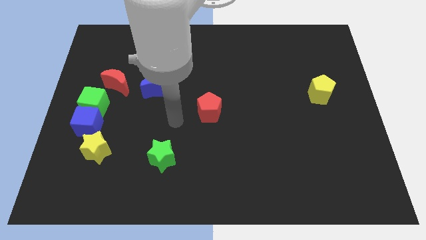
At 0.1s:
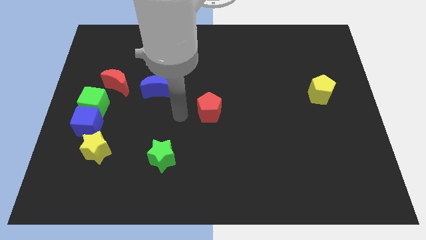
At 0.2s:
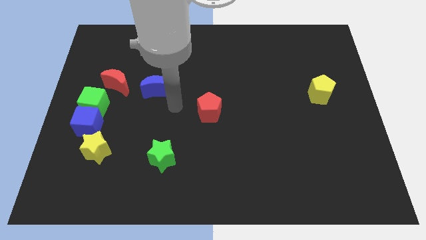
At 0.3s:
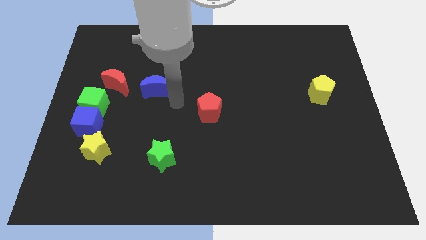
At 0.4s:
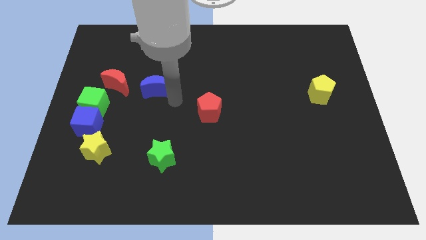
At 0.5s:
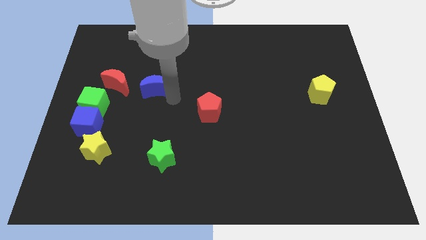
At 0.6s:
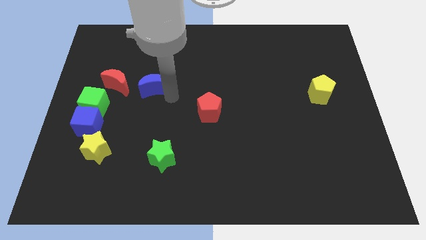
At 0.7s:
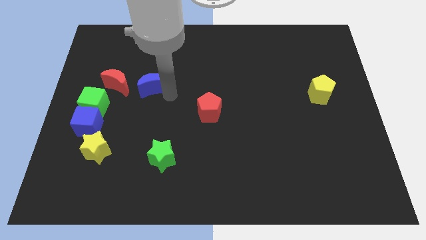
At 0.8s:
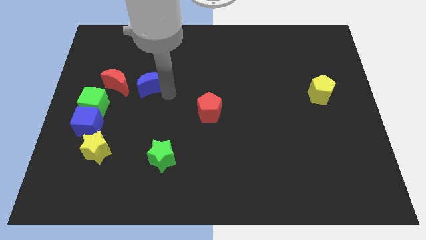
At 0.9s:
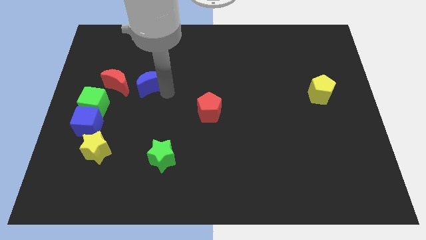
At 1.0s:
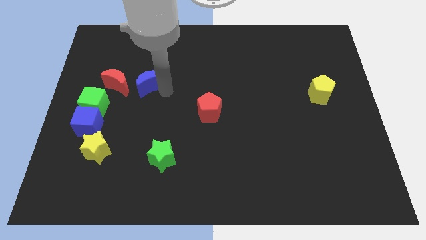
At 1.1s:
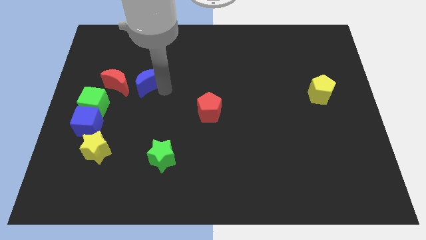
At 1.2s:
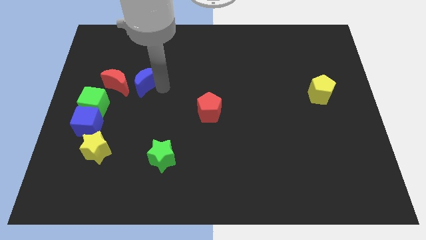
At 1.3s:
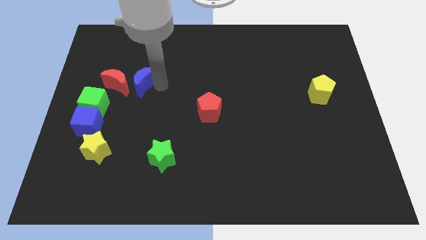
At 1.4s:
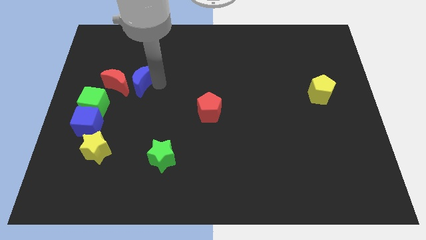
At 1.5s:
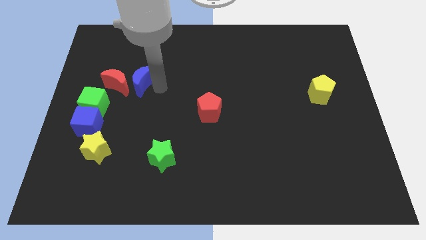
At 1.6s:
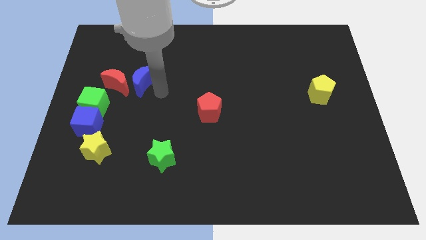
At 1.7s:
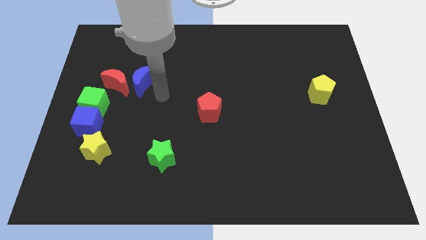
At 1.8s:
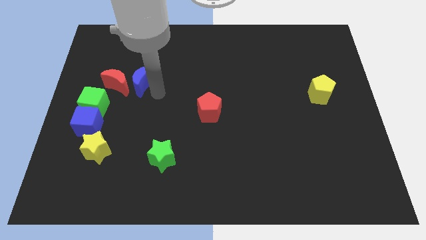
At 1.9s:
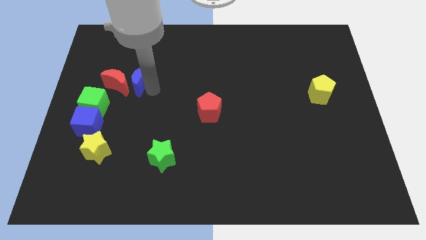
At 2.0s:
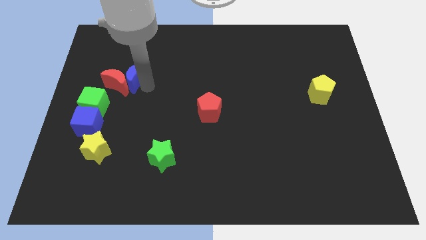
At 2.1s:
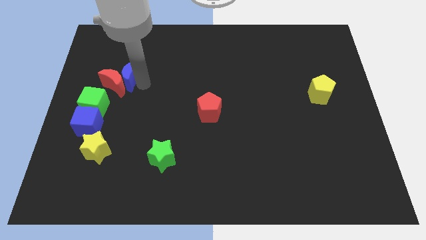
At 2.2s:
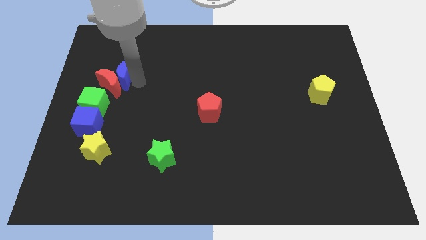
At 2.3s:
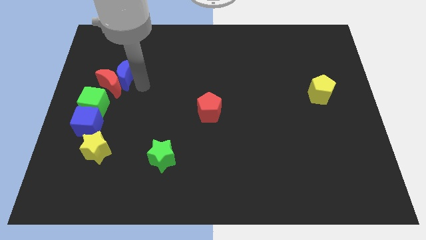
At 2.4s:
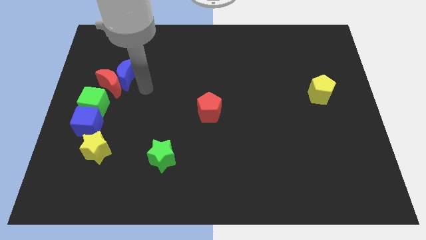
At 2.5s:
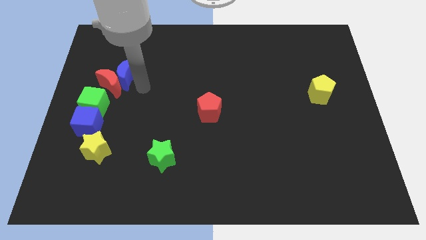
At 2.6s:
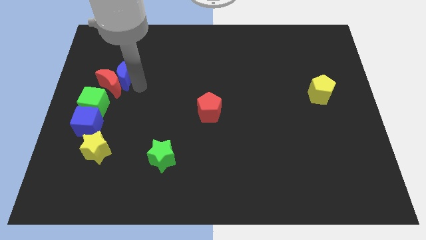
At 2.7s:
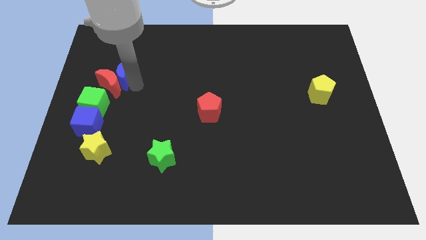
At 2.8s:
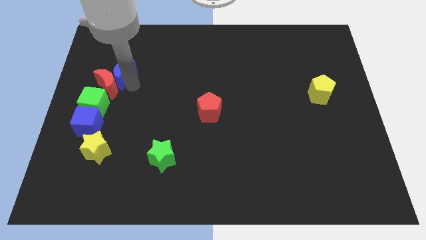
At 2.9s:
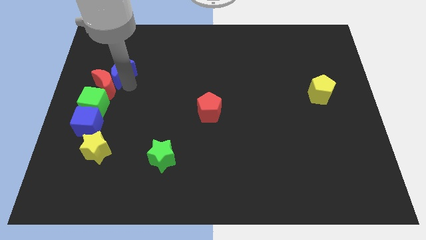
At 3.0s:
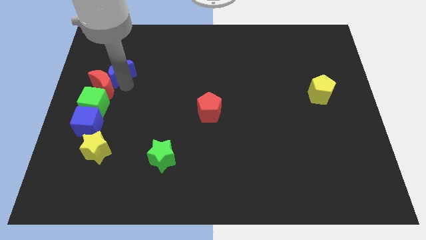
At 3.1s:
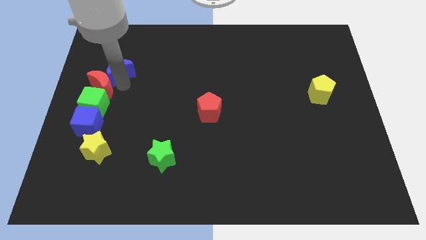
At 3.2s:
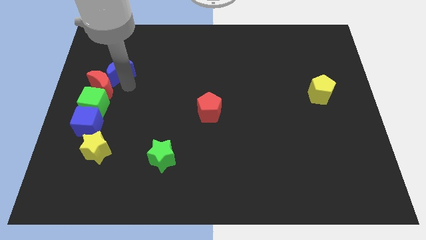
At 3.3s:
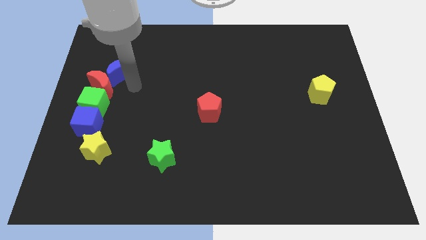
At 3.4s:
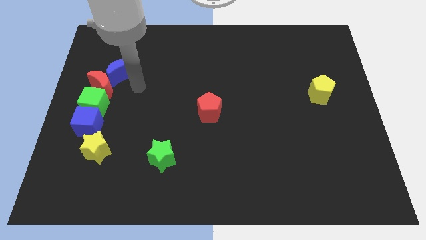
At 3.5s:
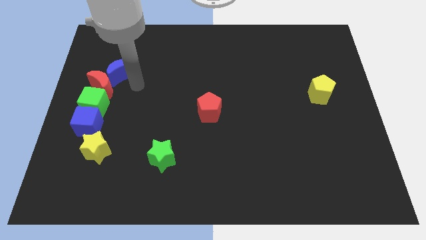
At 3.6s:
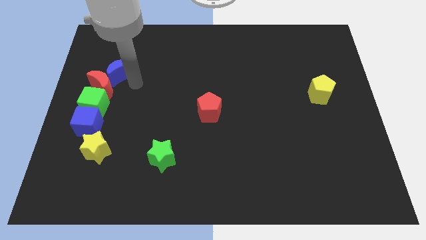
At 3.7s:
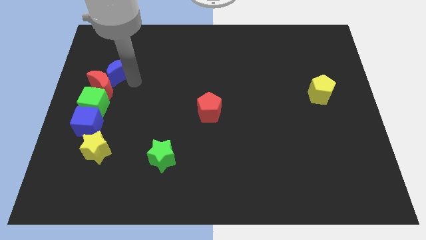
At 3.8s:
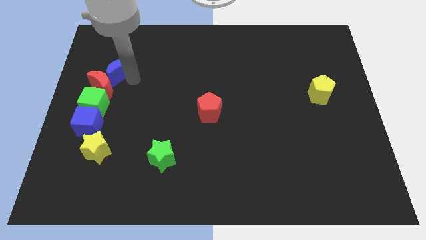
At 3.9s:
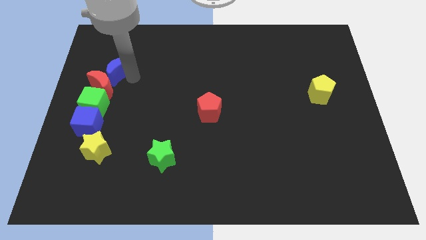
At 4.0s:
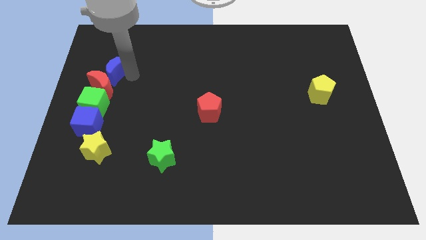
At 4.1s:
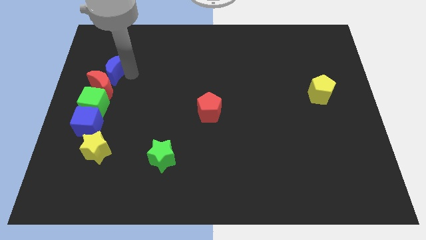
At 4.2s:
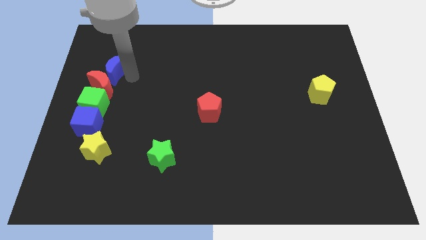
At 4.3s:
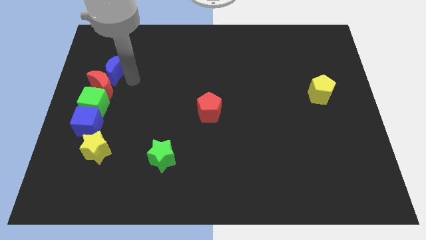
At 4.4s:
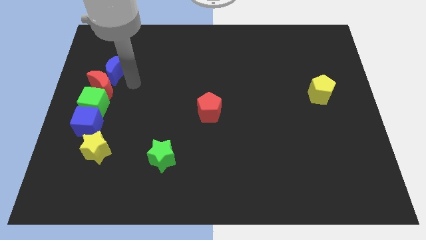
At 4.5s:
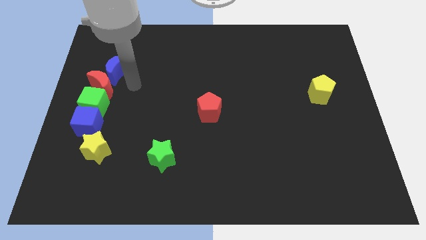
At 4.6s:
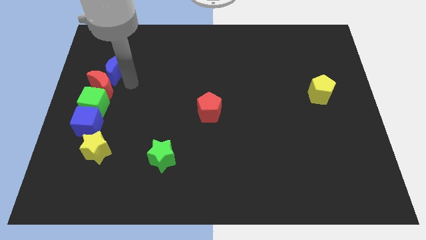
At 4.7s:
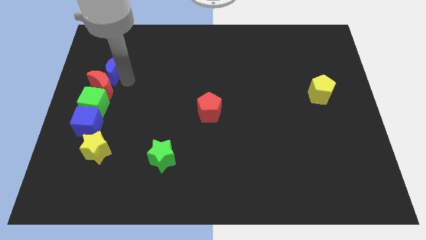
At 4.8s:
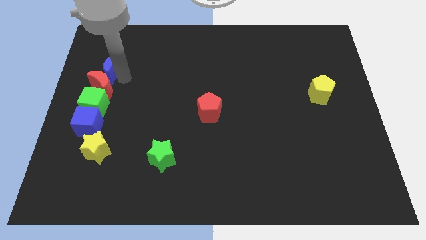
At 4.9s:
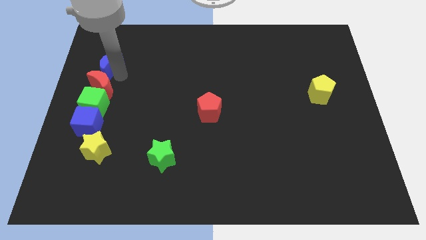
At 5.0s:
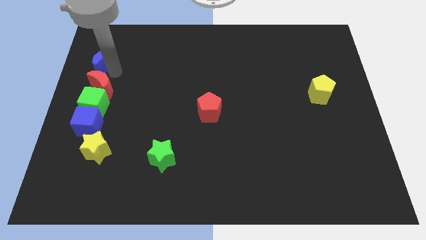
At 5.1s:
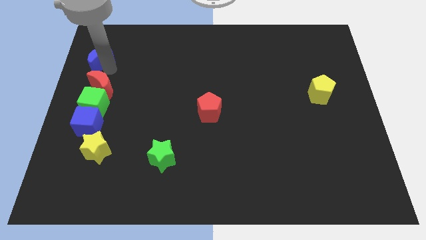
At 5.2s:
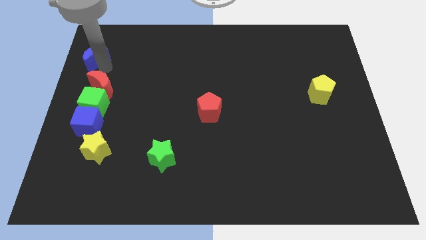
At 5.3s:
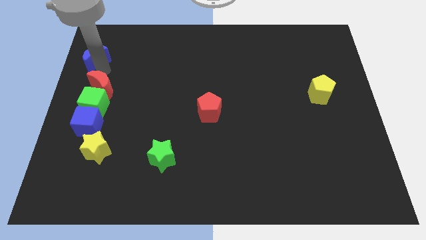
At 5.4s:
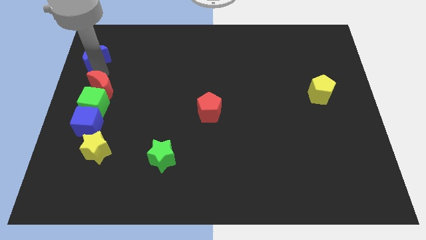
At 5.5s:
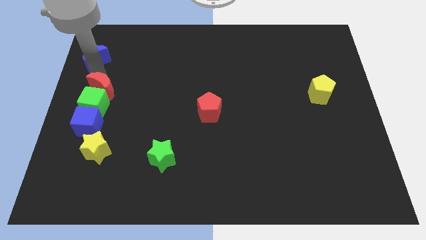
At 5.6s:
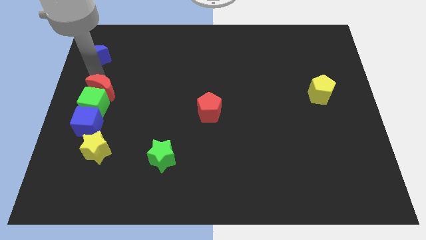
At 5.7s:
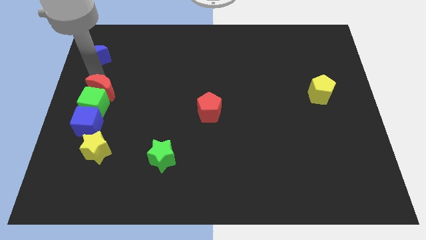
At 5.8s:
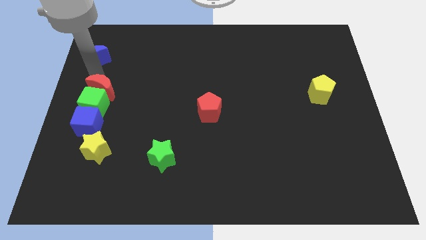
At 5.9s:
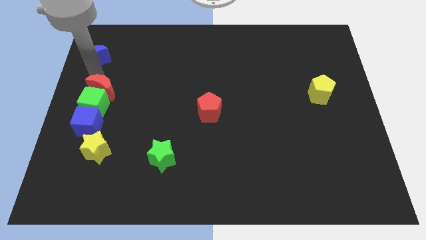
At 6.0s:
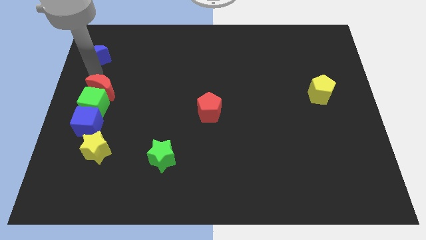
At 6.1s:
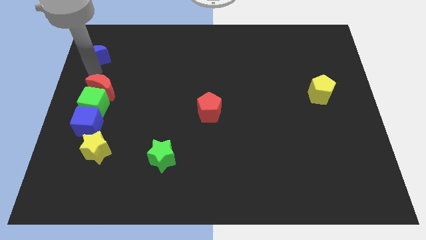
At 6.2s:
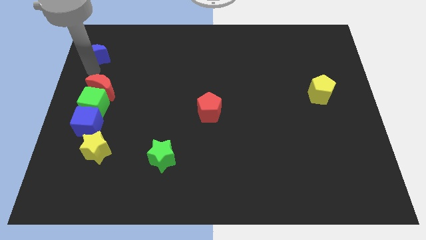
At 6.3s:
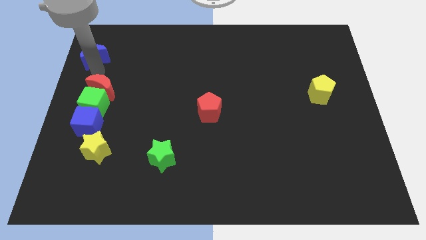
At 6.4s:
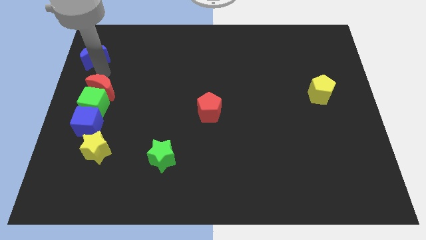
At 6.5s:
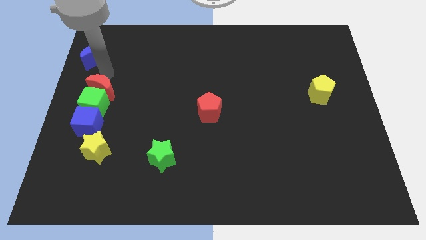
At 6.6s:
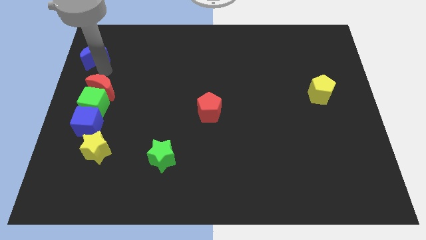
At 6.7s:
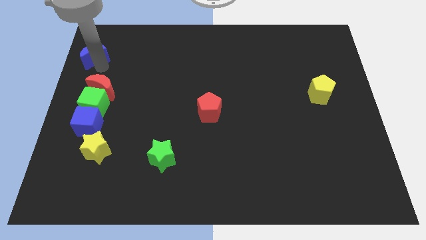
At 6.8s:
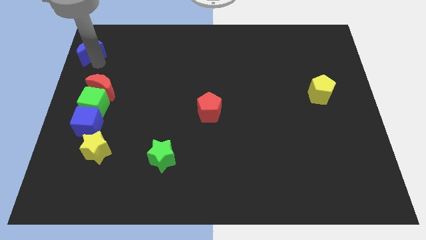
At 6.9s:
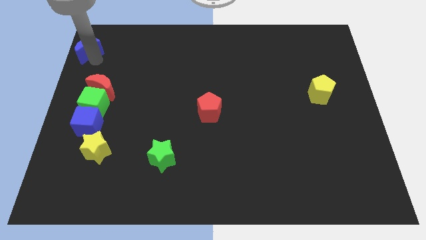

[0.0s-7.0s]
push the blue moon to the upper left corner

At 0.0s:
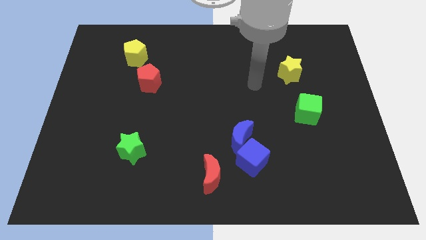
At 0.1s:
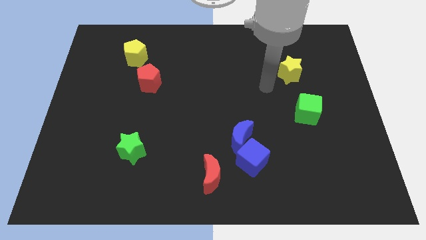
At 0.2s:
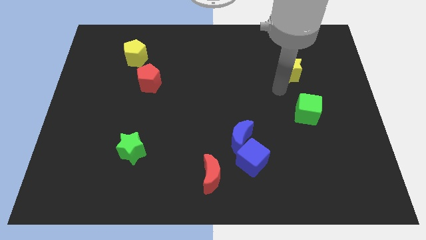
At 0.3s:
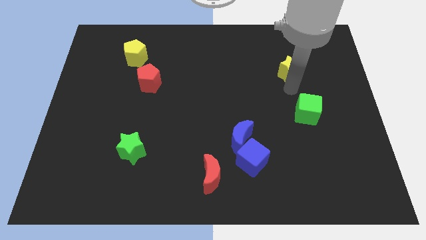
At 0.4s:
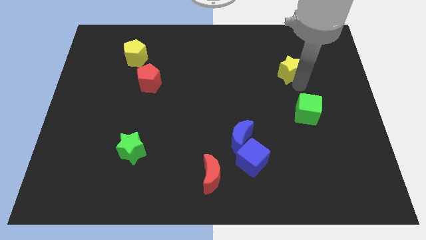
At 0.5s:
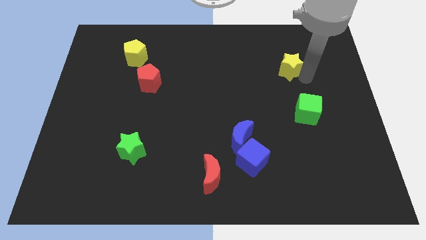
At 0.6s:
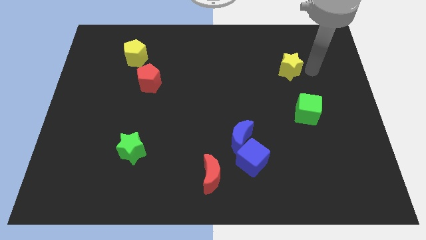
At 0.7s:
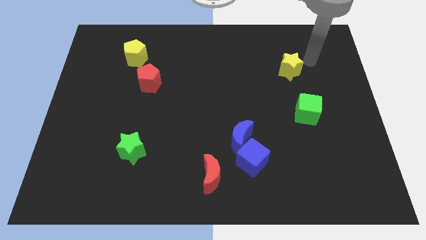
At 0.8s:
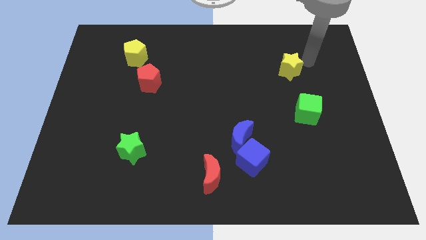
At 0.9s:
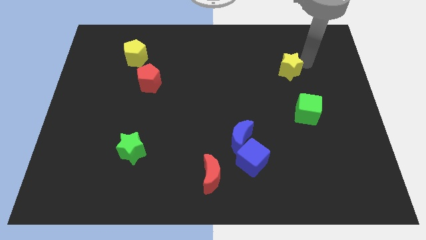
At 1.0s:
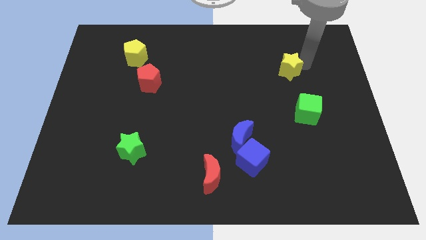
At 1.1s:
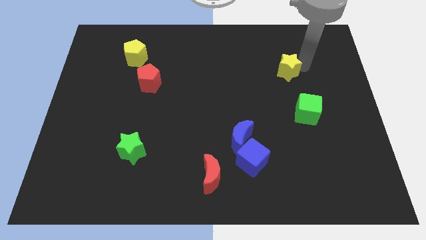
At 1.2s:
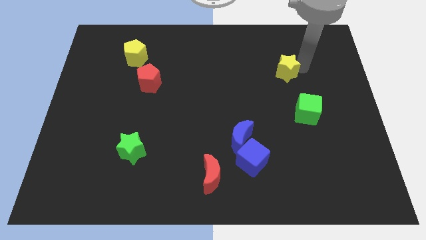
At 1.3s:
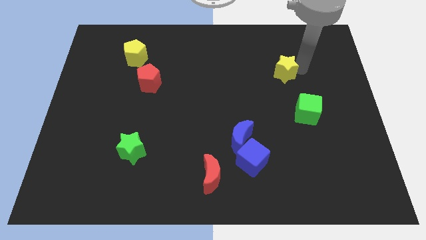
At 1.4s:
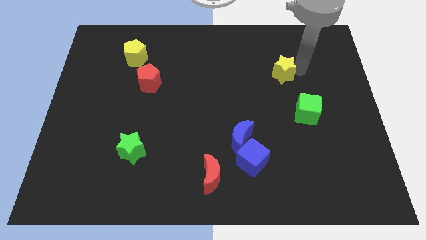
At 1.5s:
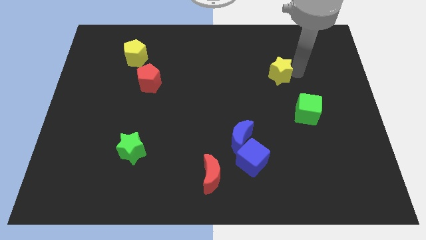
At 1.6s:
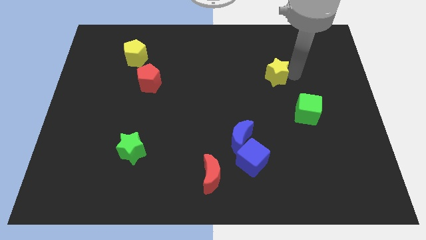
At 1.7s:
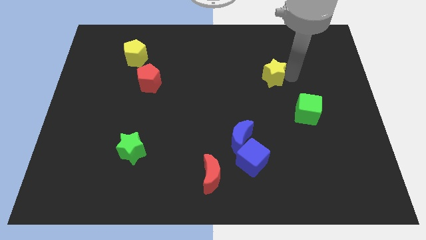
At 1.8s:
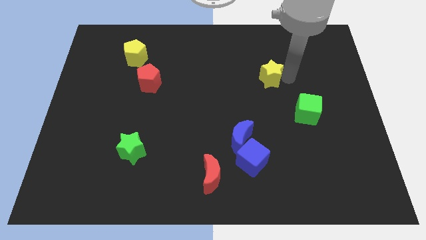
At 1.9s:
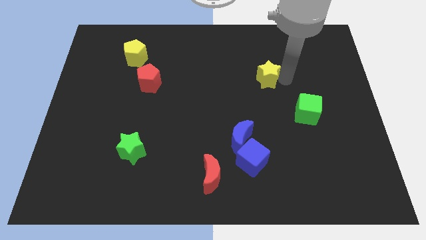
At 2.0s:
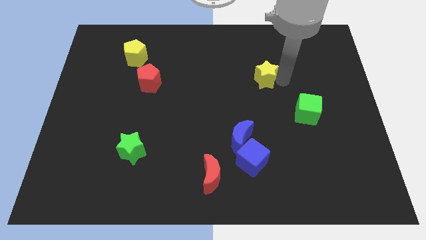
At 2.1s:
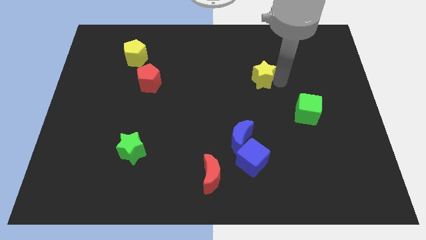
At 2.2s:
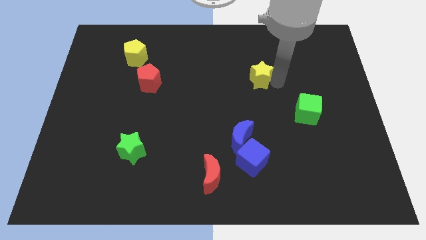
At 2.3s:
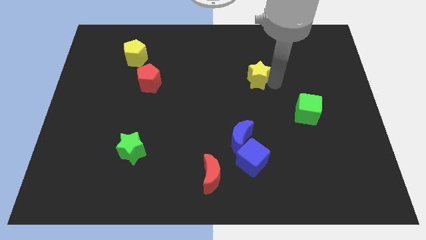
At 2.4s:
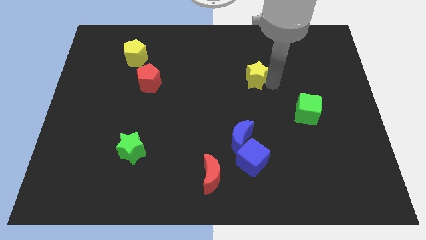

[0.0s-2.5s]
move the yellow star to the middle
